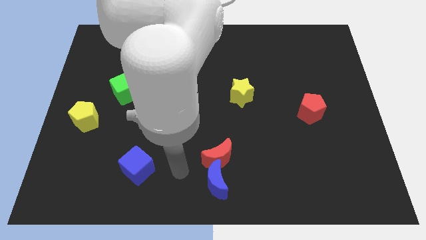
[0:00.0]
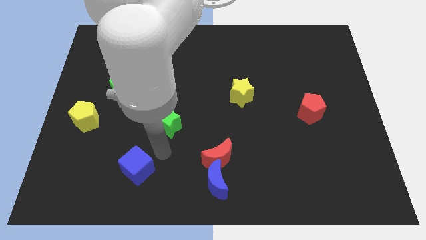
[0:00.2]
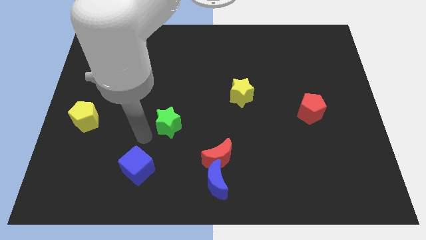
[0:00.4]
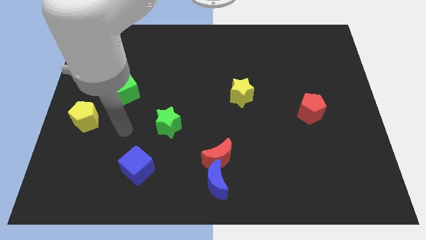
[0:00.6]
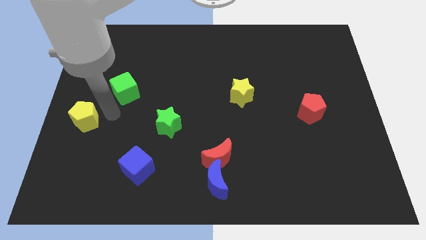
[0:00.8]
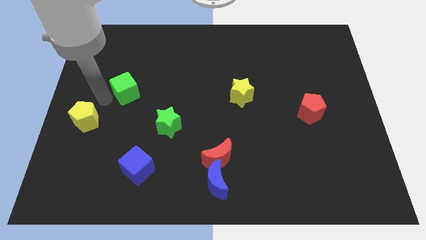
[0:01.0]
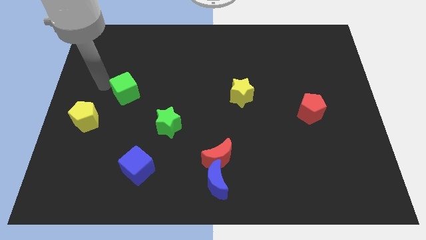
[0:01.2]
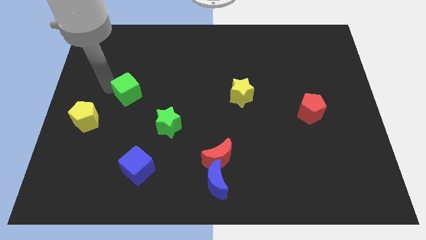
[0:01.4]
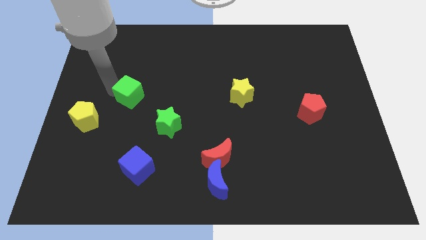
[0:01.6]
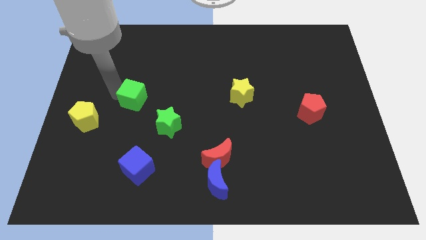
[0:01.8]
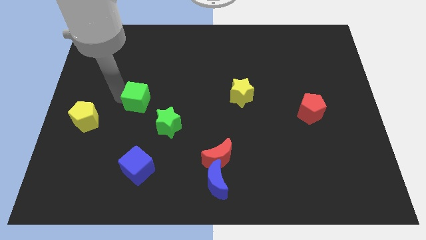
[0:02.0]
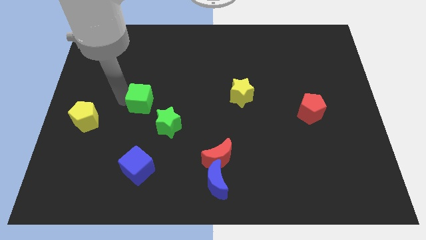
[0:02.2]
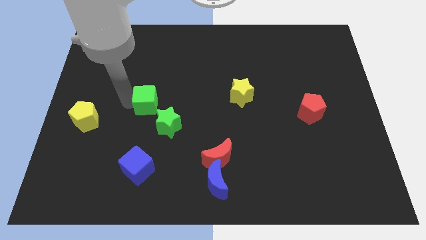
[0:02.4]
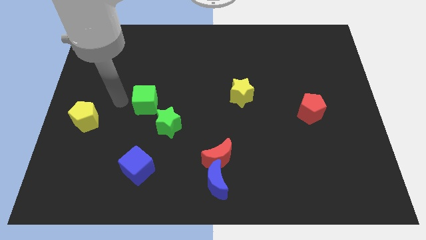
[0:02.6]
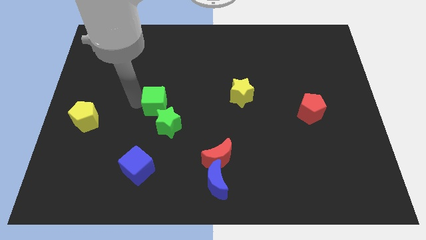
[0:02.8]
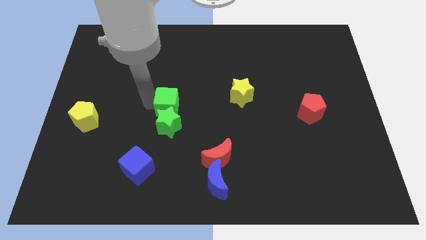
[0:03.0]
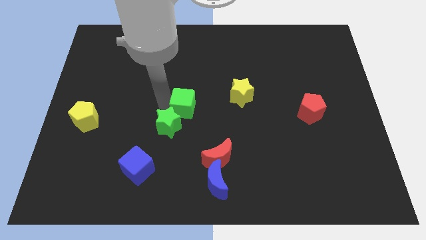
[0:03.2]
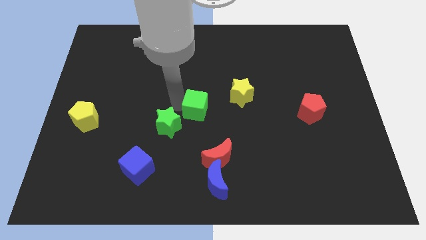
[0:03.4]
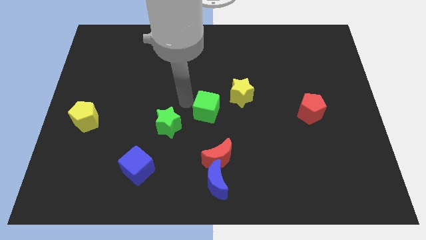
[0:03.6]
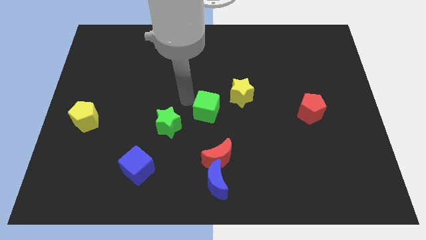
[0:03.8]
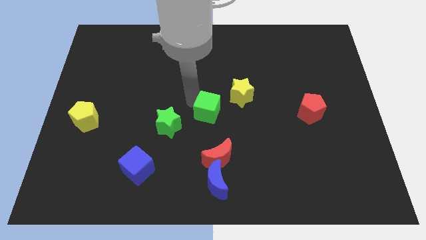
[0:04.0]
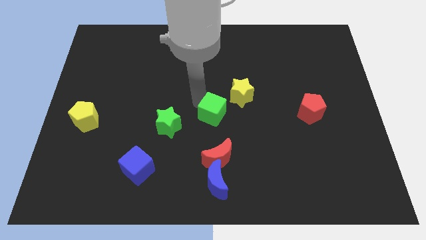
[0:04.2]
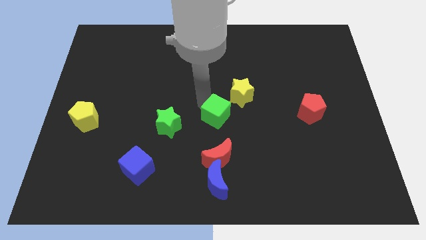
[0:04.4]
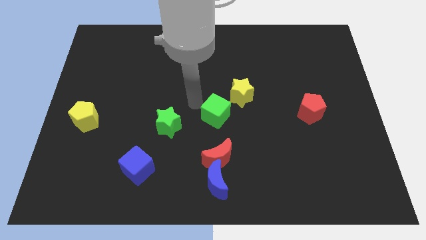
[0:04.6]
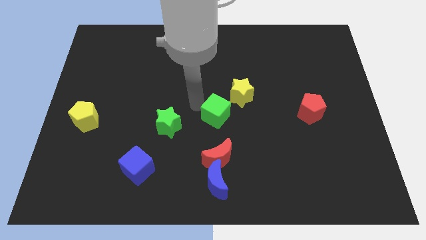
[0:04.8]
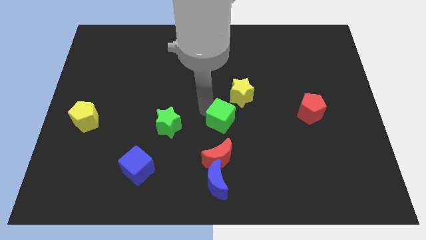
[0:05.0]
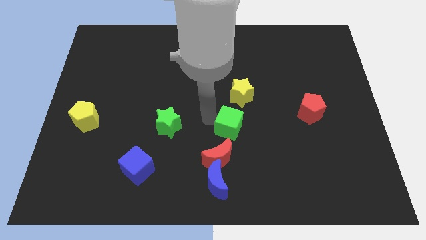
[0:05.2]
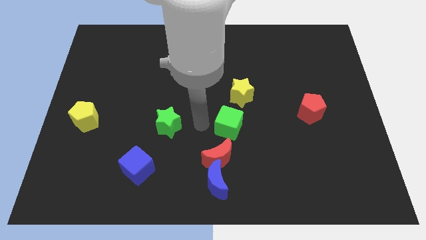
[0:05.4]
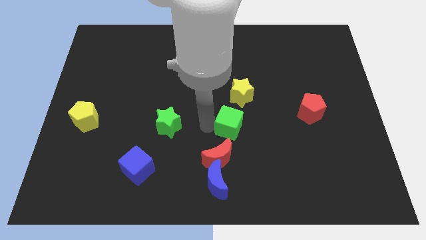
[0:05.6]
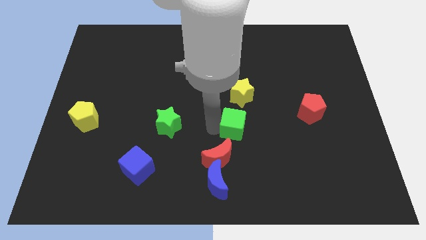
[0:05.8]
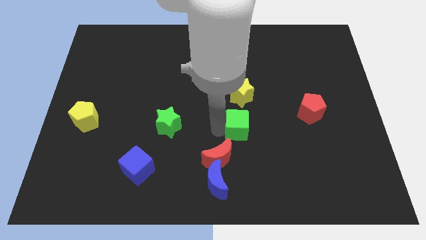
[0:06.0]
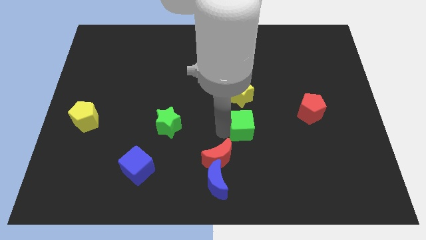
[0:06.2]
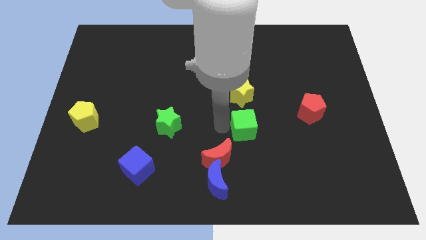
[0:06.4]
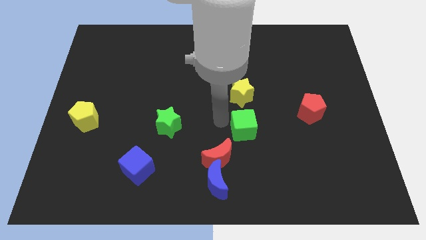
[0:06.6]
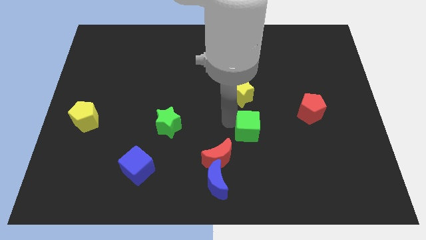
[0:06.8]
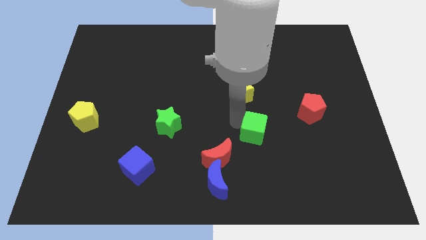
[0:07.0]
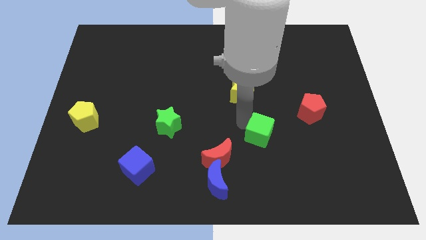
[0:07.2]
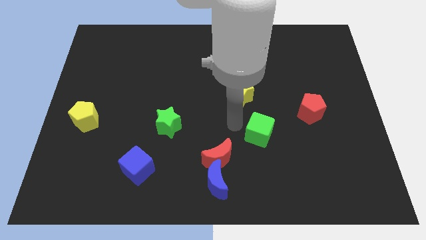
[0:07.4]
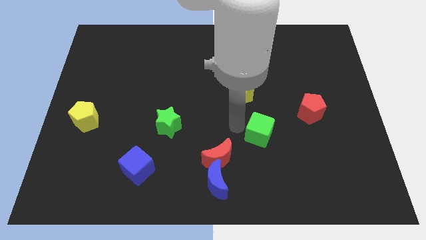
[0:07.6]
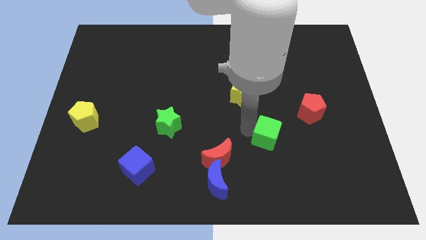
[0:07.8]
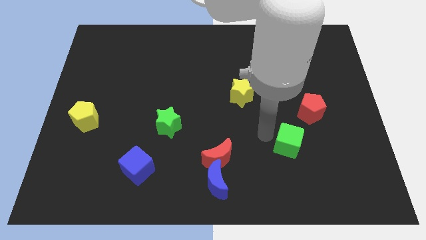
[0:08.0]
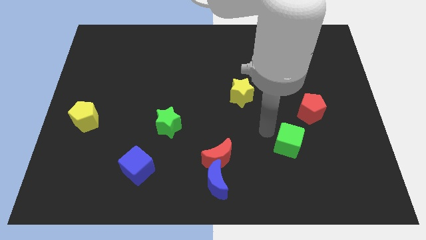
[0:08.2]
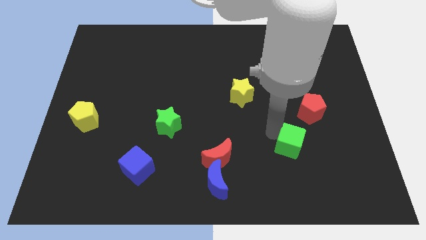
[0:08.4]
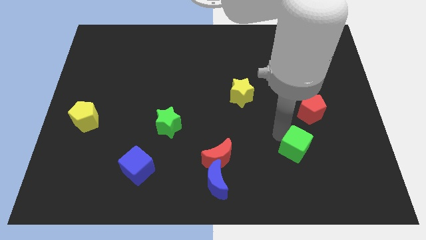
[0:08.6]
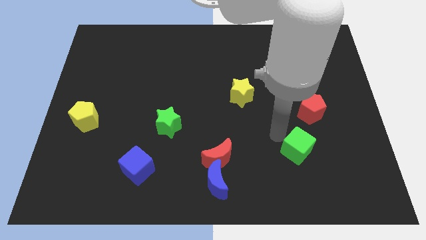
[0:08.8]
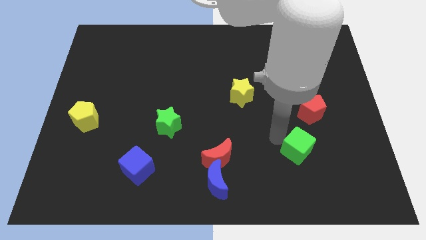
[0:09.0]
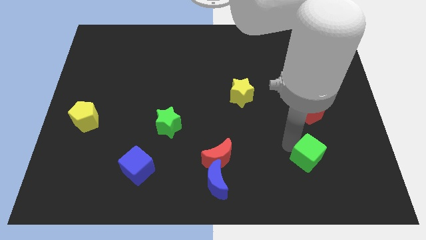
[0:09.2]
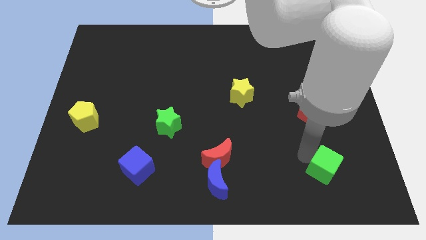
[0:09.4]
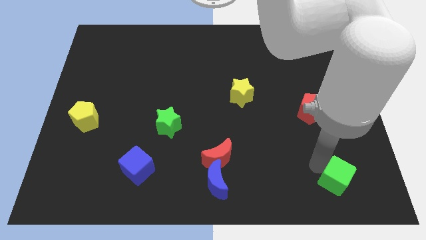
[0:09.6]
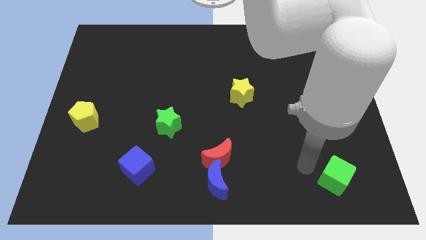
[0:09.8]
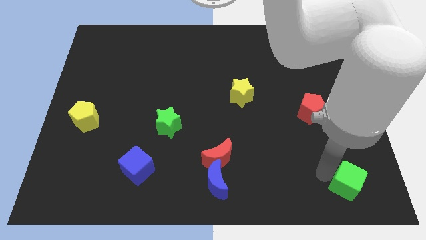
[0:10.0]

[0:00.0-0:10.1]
slide the green cube to the lower right corner

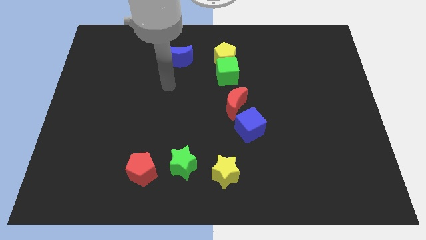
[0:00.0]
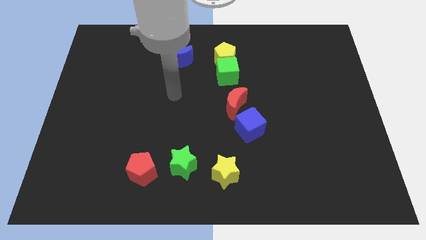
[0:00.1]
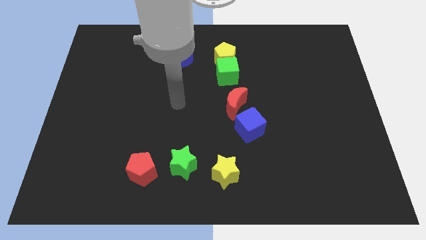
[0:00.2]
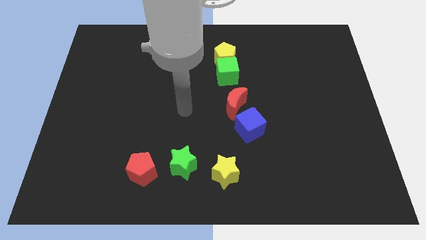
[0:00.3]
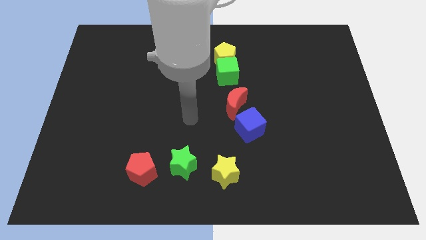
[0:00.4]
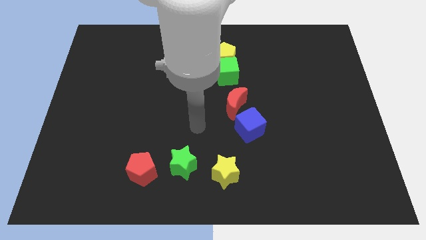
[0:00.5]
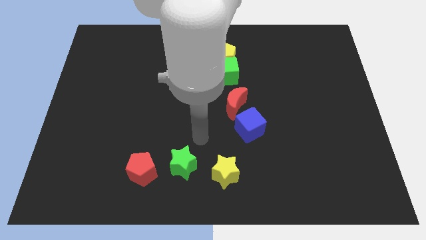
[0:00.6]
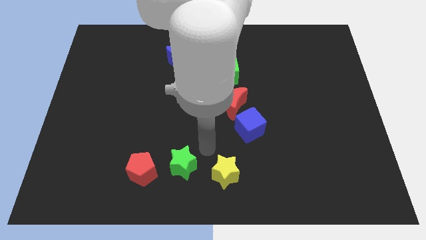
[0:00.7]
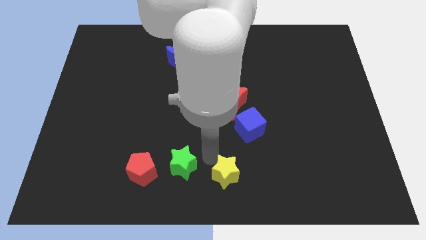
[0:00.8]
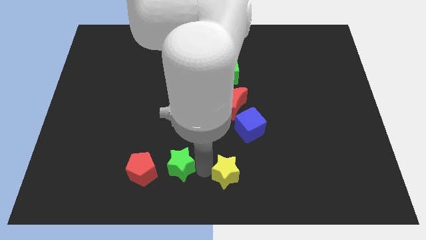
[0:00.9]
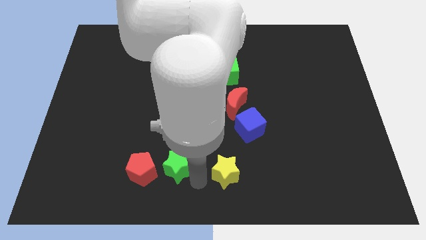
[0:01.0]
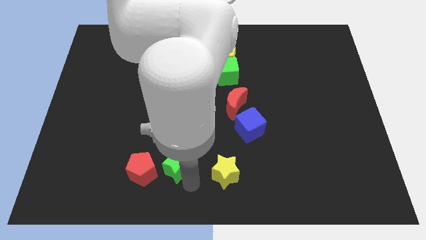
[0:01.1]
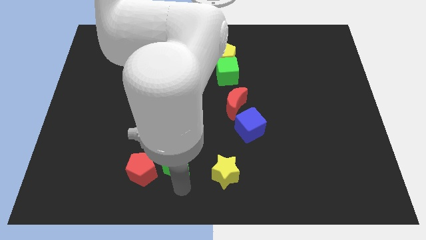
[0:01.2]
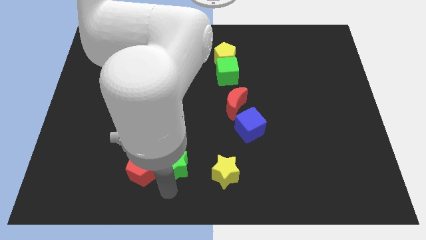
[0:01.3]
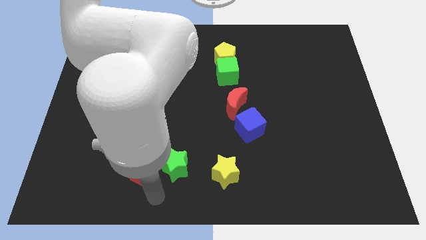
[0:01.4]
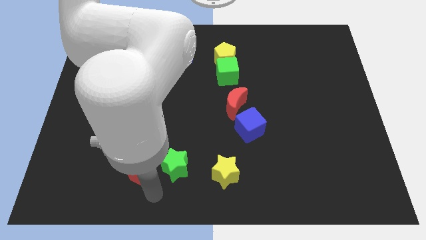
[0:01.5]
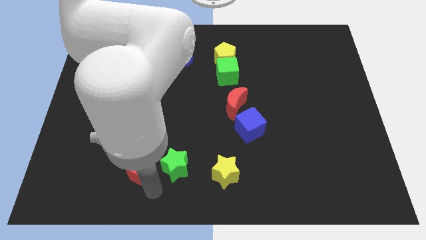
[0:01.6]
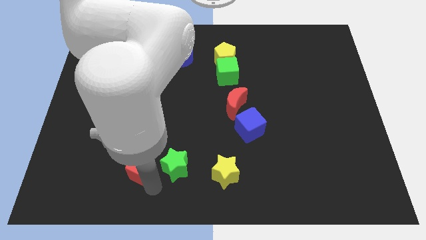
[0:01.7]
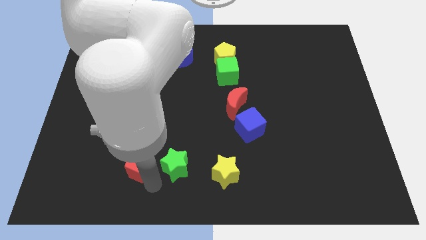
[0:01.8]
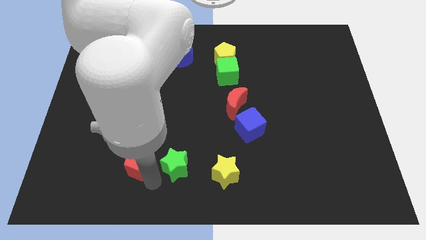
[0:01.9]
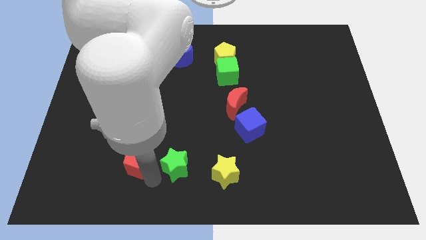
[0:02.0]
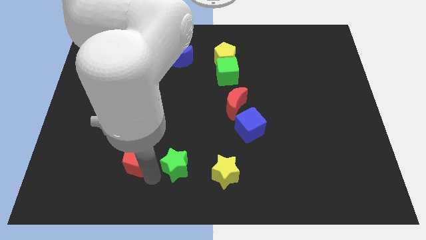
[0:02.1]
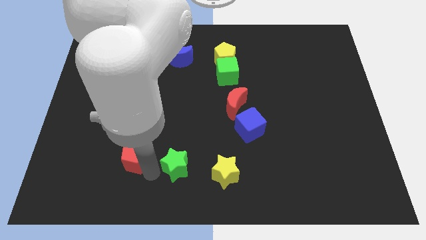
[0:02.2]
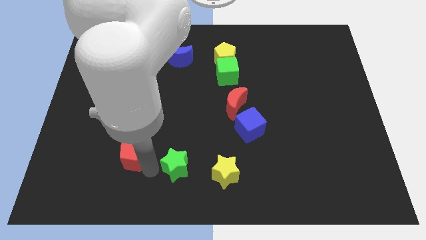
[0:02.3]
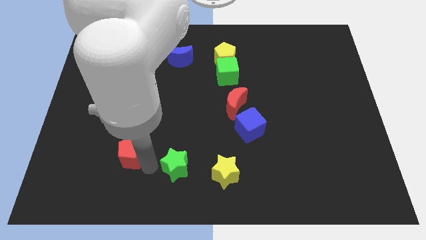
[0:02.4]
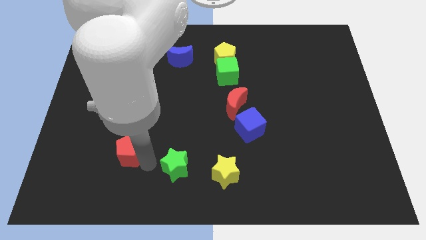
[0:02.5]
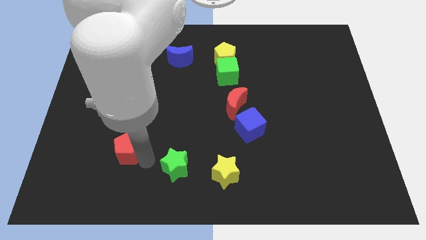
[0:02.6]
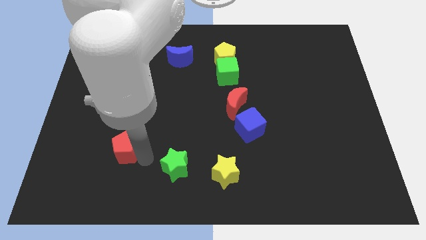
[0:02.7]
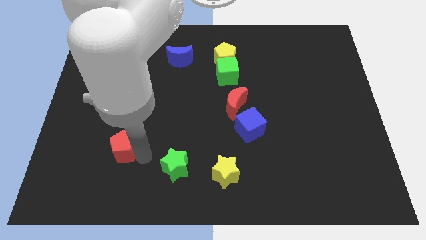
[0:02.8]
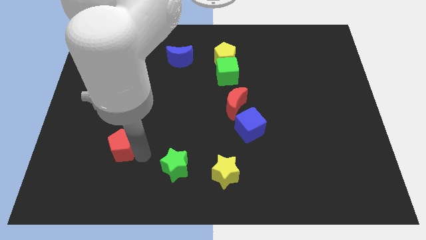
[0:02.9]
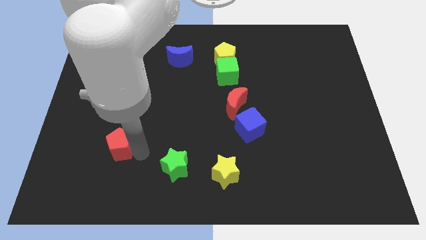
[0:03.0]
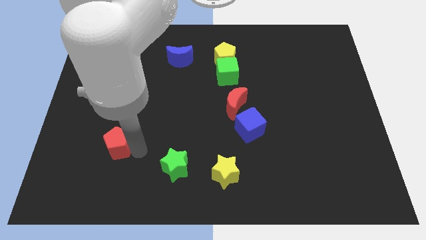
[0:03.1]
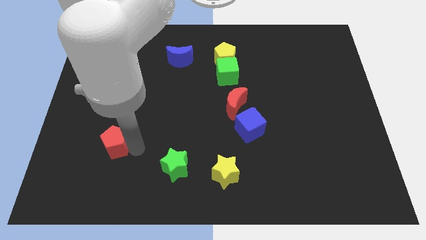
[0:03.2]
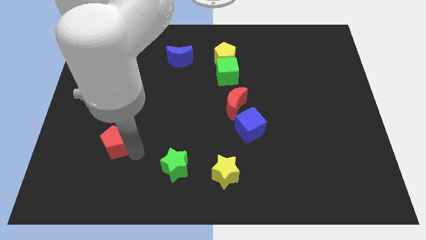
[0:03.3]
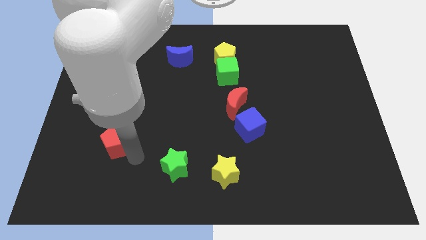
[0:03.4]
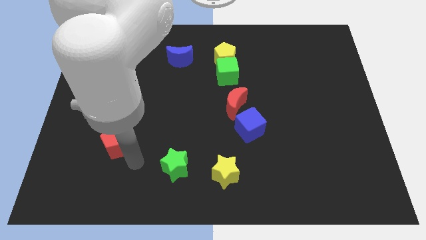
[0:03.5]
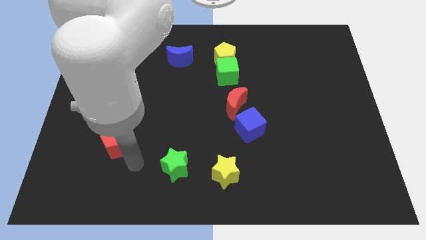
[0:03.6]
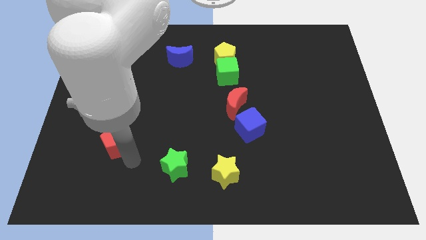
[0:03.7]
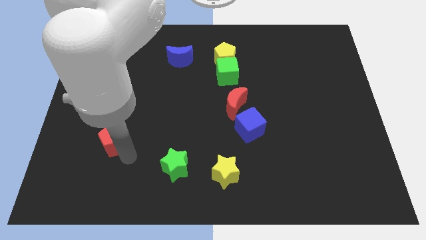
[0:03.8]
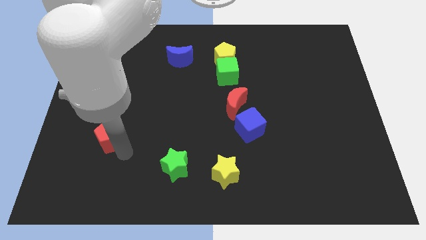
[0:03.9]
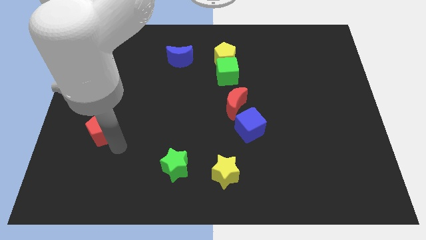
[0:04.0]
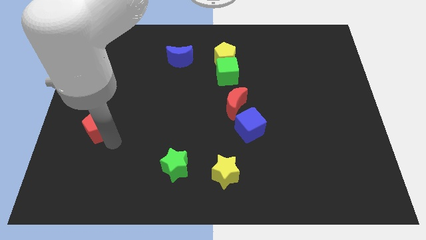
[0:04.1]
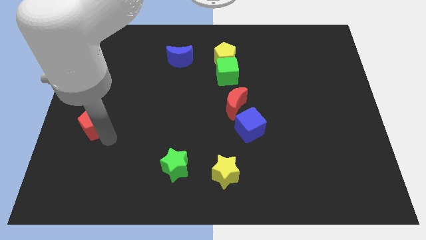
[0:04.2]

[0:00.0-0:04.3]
slide the red pentagon to the center left
